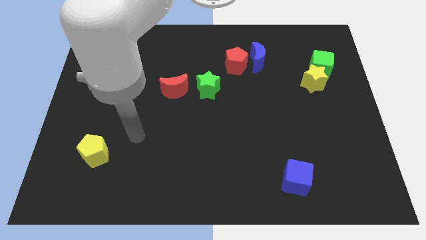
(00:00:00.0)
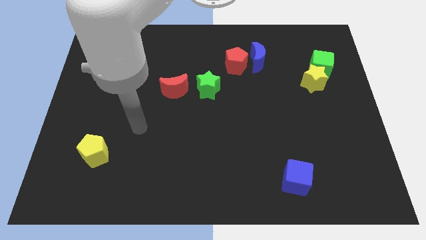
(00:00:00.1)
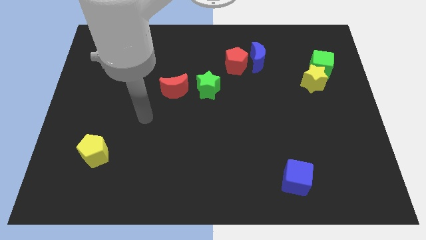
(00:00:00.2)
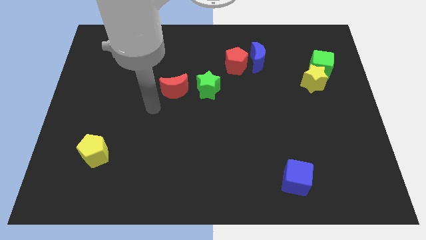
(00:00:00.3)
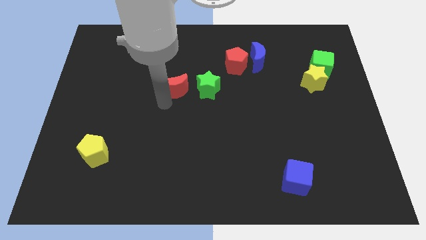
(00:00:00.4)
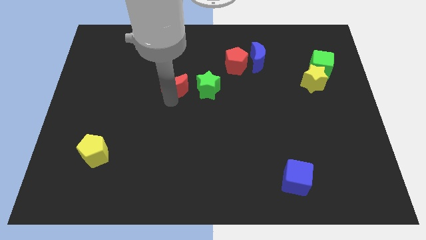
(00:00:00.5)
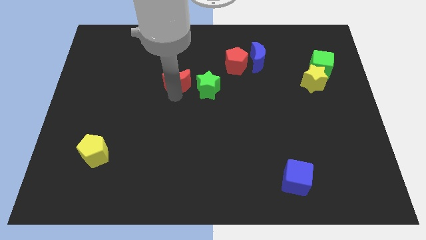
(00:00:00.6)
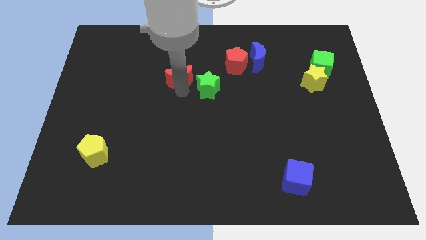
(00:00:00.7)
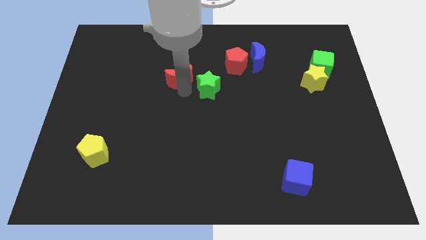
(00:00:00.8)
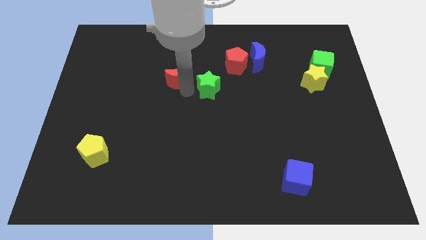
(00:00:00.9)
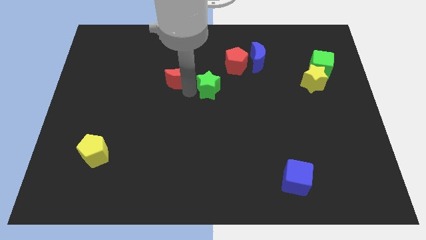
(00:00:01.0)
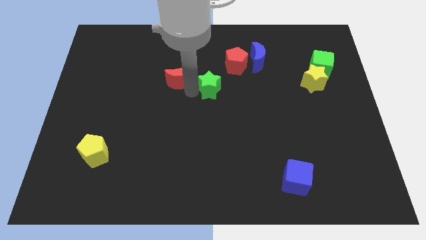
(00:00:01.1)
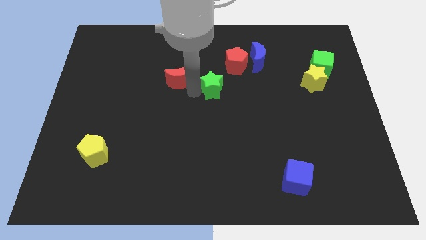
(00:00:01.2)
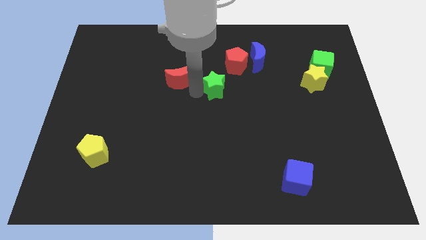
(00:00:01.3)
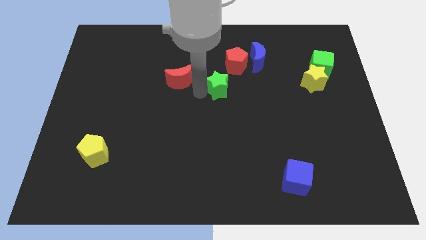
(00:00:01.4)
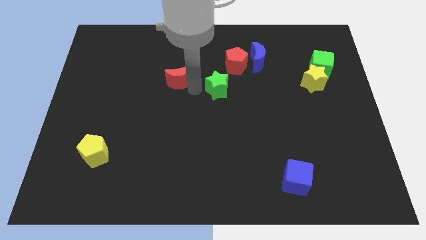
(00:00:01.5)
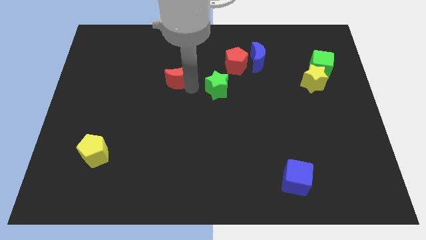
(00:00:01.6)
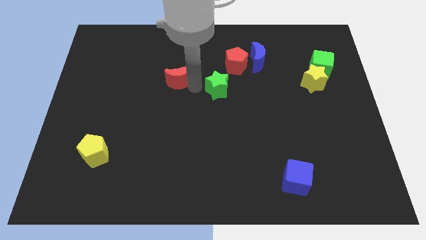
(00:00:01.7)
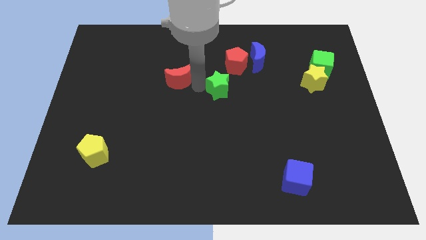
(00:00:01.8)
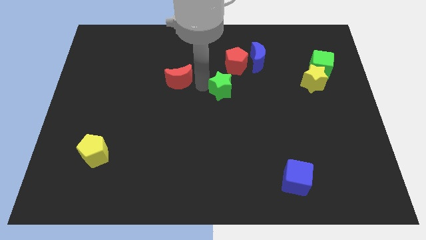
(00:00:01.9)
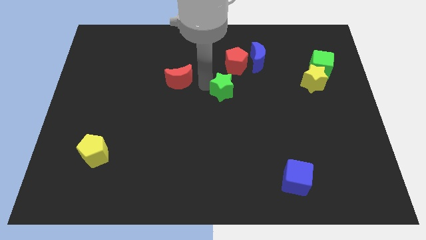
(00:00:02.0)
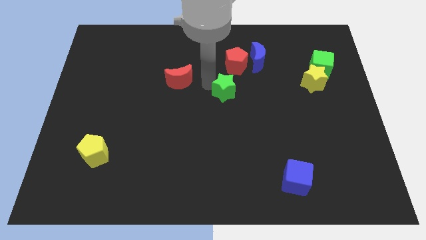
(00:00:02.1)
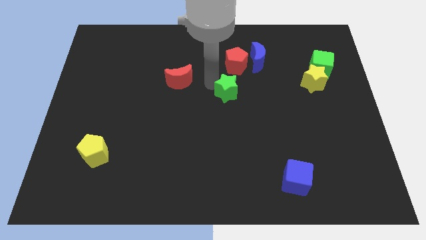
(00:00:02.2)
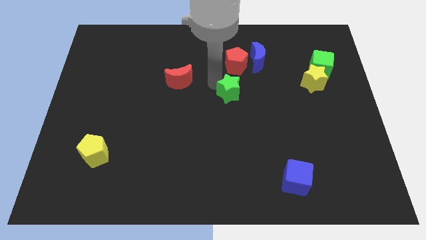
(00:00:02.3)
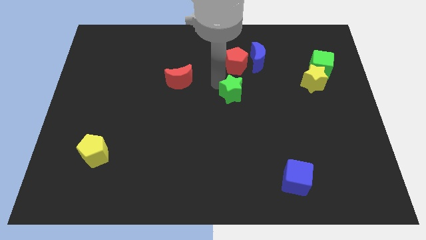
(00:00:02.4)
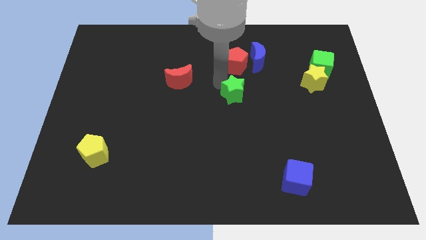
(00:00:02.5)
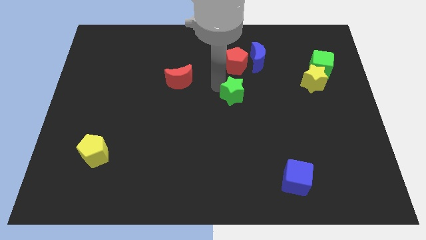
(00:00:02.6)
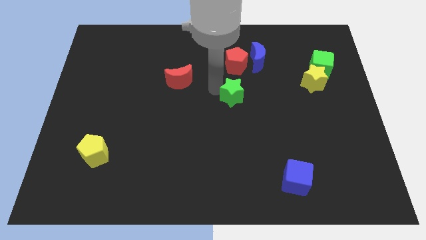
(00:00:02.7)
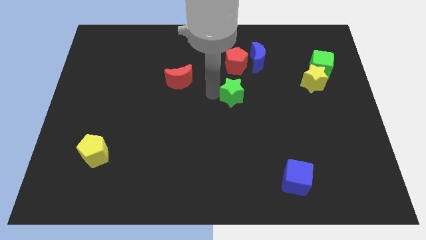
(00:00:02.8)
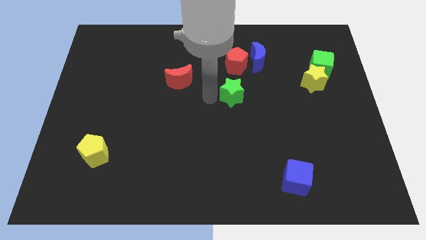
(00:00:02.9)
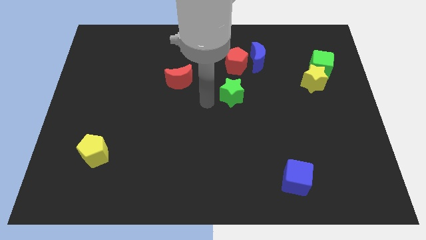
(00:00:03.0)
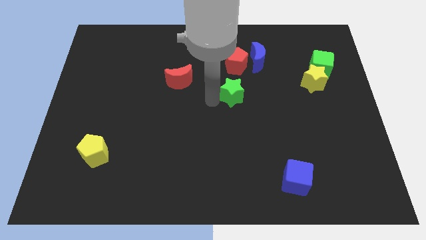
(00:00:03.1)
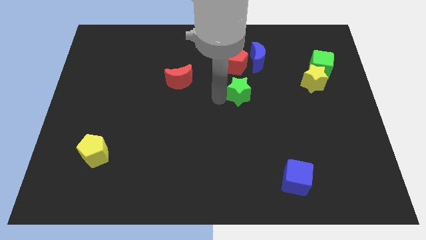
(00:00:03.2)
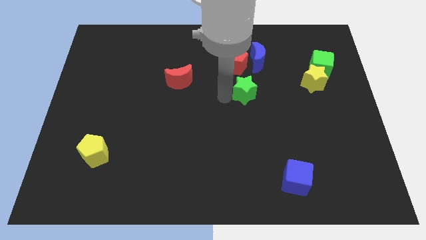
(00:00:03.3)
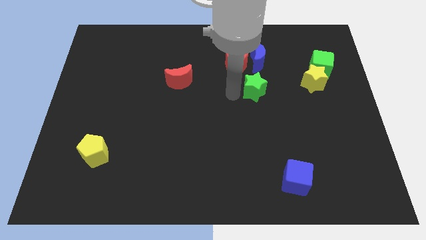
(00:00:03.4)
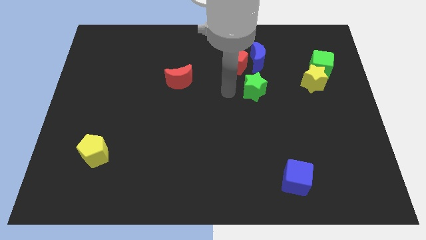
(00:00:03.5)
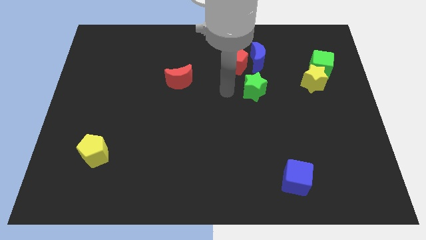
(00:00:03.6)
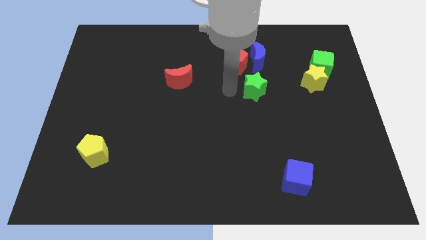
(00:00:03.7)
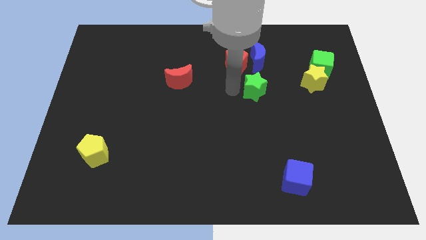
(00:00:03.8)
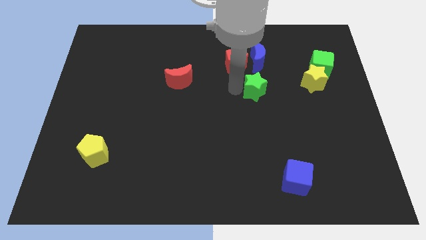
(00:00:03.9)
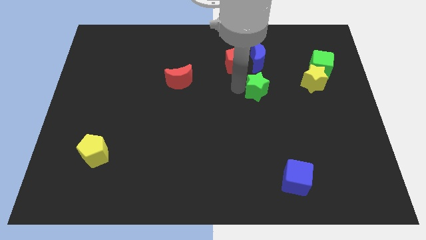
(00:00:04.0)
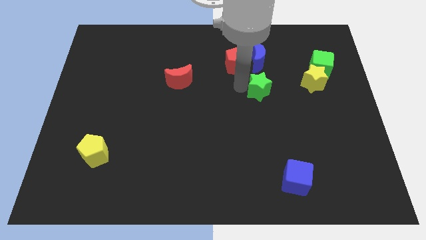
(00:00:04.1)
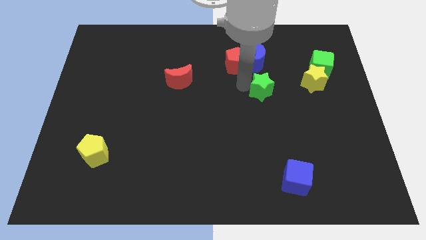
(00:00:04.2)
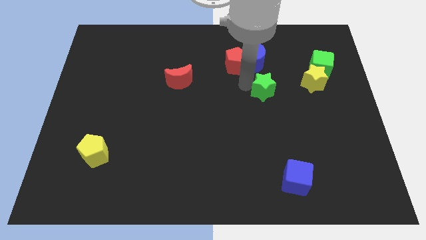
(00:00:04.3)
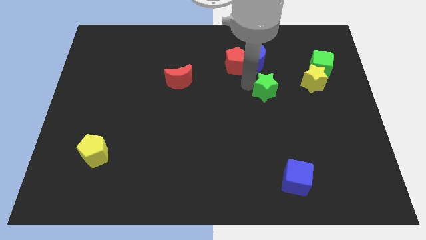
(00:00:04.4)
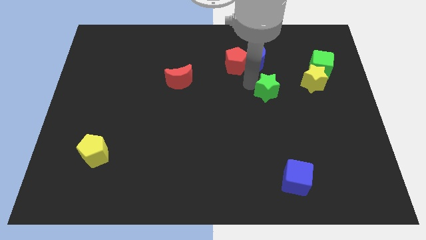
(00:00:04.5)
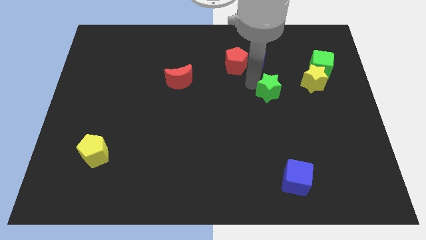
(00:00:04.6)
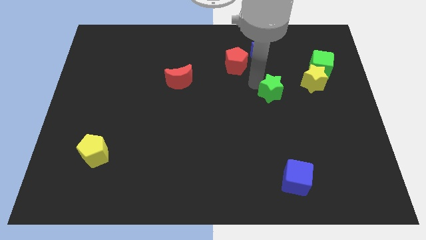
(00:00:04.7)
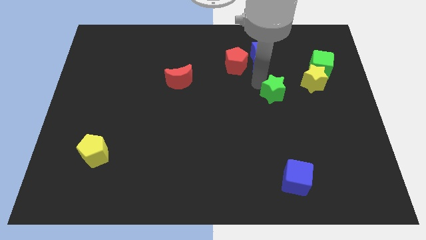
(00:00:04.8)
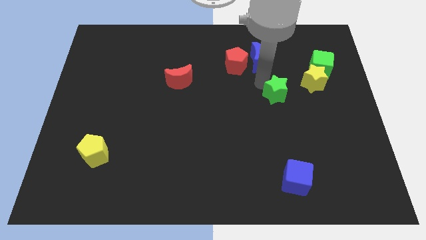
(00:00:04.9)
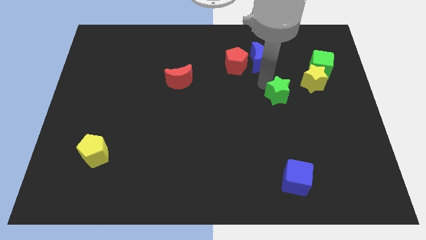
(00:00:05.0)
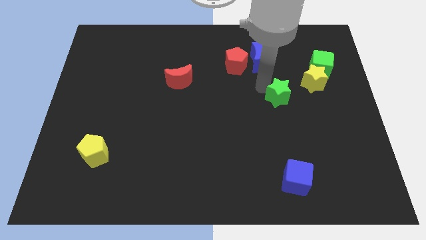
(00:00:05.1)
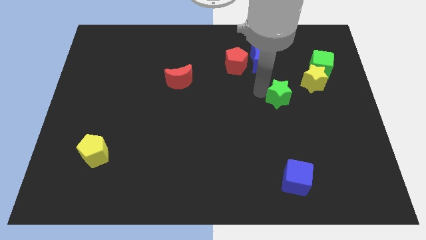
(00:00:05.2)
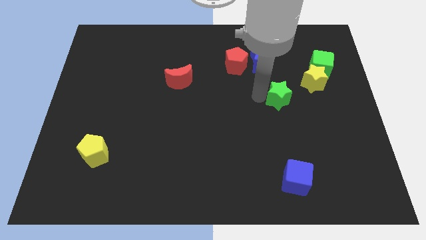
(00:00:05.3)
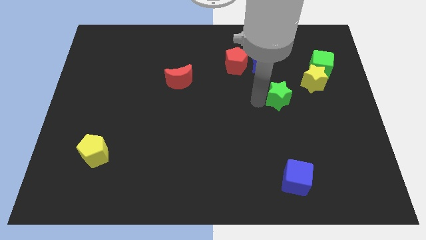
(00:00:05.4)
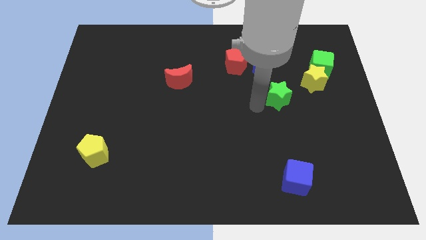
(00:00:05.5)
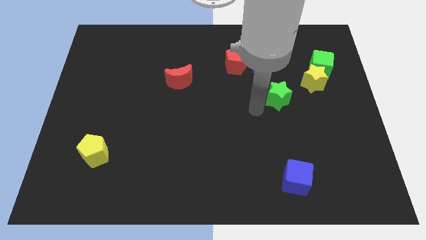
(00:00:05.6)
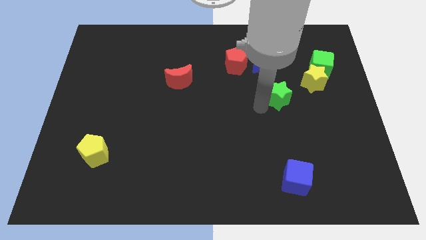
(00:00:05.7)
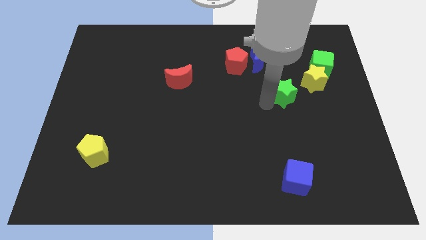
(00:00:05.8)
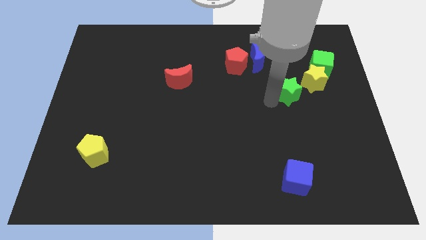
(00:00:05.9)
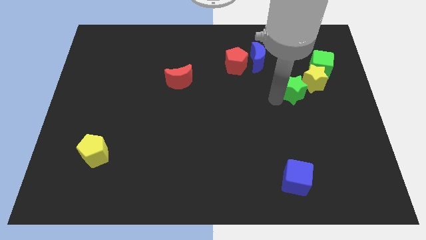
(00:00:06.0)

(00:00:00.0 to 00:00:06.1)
push the green star close to the yellow star

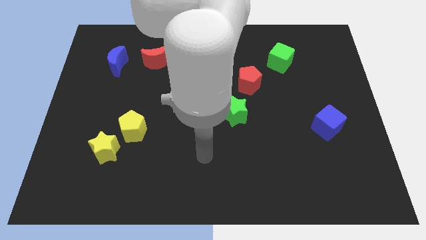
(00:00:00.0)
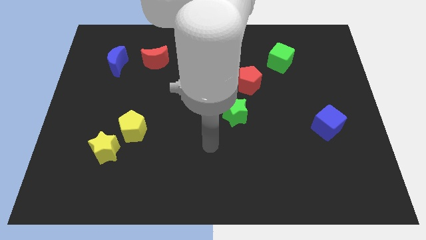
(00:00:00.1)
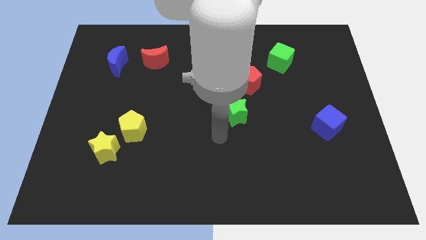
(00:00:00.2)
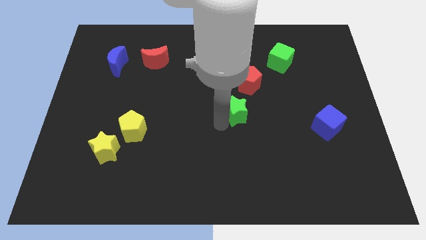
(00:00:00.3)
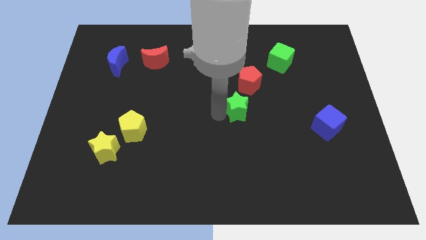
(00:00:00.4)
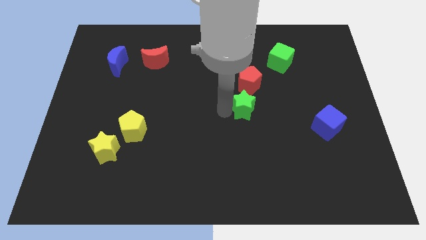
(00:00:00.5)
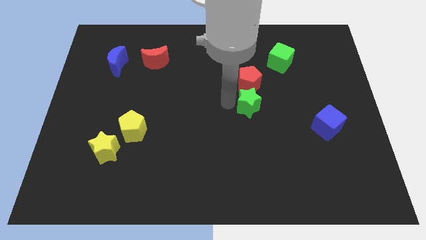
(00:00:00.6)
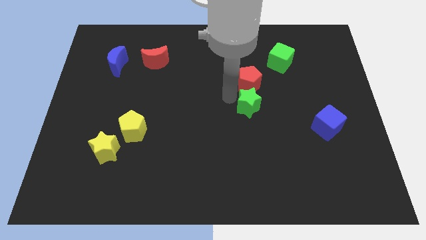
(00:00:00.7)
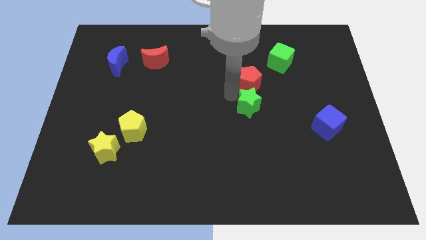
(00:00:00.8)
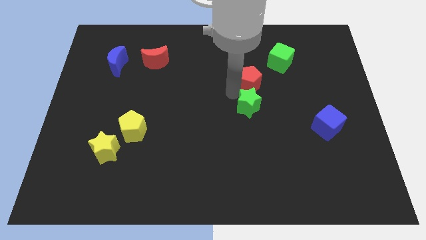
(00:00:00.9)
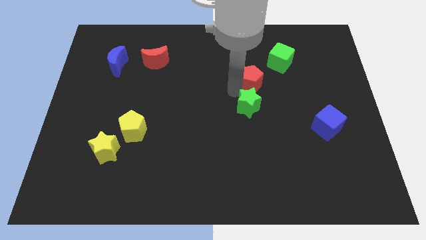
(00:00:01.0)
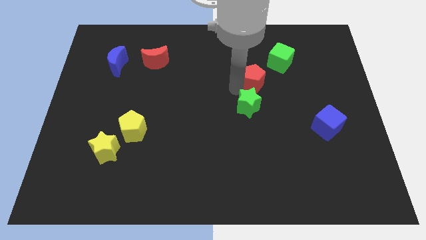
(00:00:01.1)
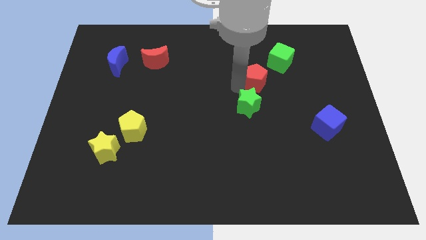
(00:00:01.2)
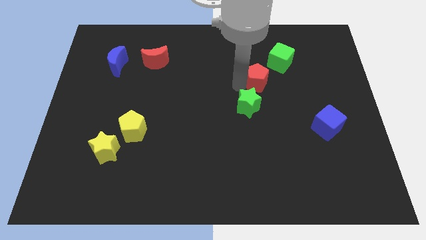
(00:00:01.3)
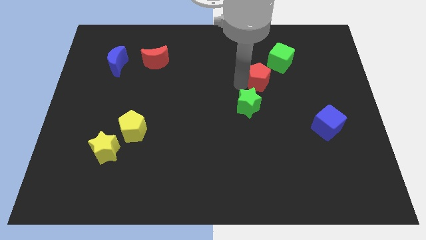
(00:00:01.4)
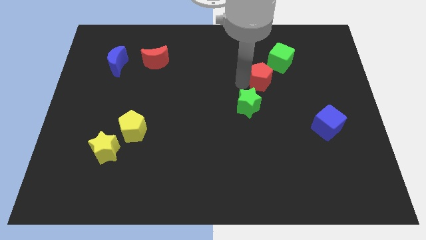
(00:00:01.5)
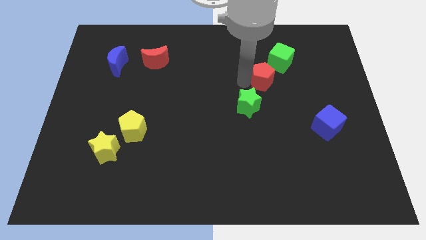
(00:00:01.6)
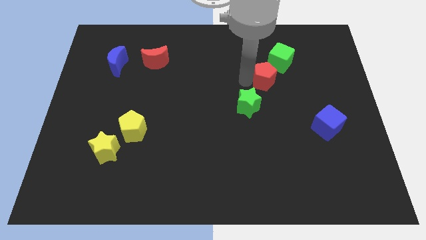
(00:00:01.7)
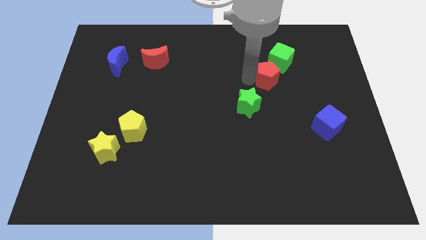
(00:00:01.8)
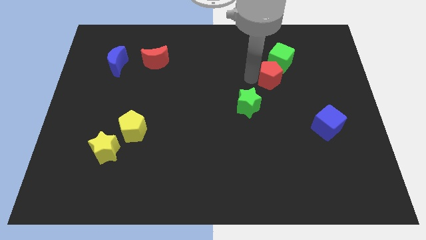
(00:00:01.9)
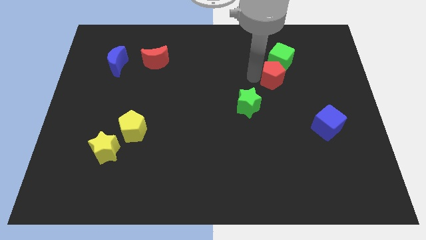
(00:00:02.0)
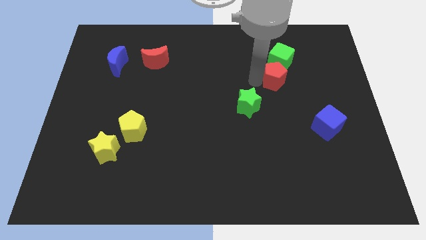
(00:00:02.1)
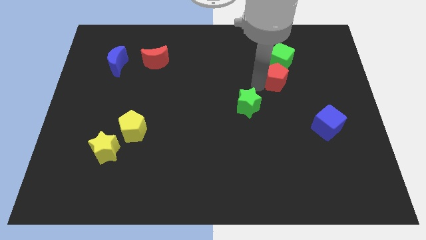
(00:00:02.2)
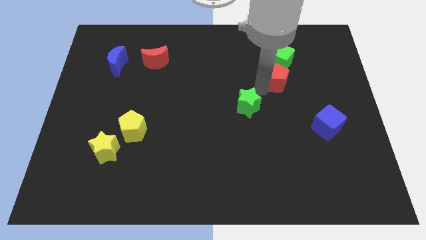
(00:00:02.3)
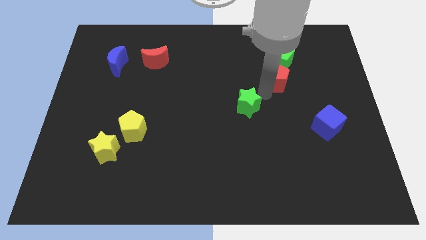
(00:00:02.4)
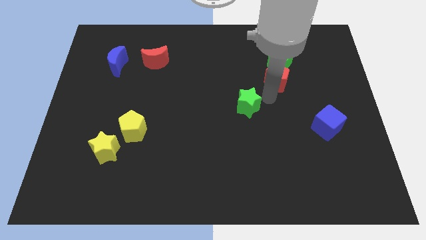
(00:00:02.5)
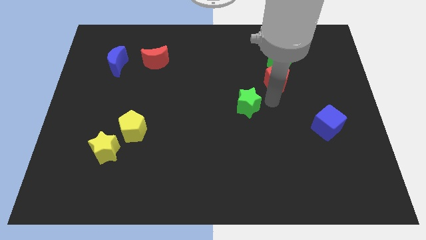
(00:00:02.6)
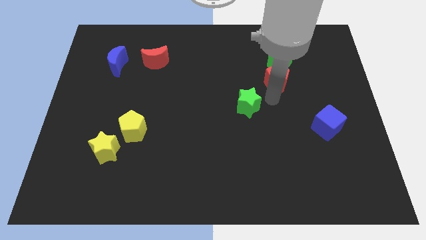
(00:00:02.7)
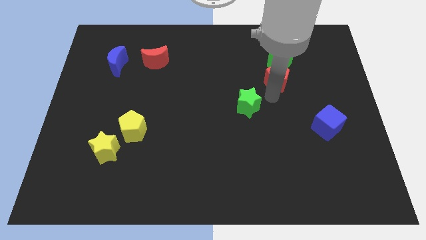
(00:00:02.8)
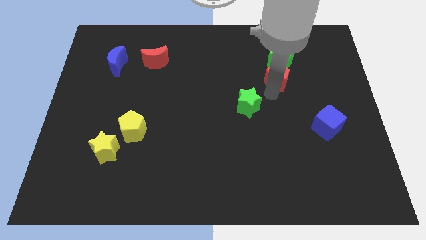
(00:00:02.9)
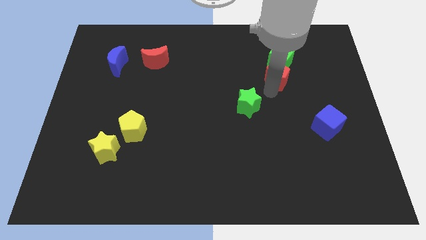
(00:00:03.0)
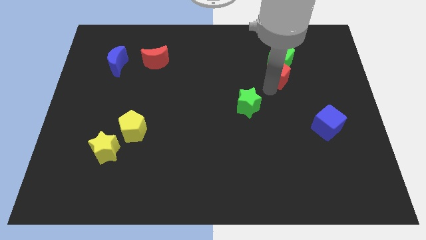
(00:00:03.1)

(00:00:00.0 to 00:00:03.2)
put the red pentagon to the green cube
